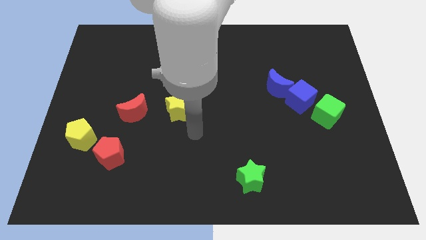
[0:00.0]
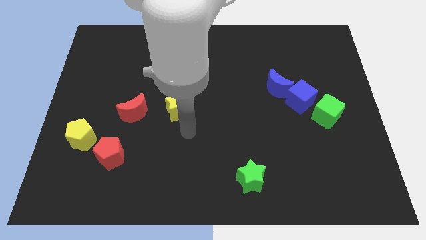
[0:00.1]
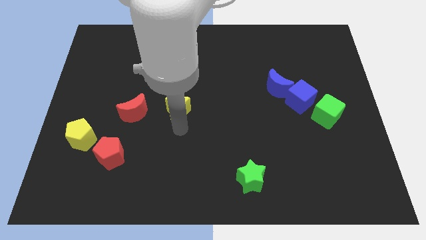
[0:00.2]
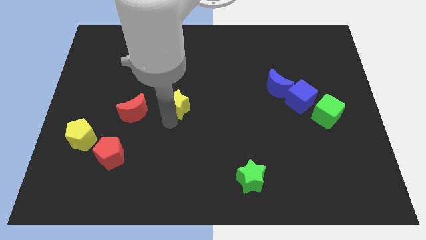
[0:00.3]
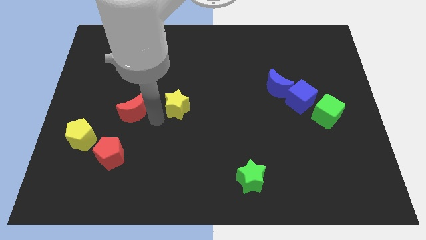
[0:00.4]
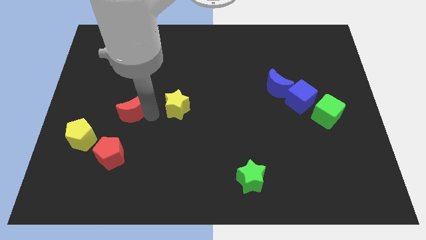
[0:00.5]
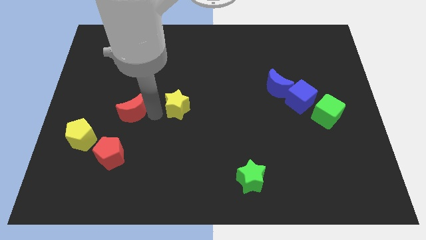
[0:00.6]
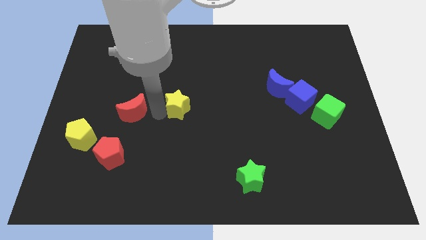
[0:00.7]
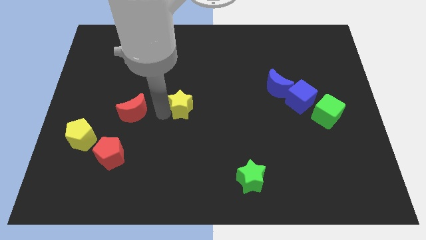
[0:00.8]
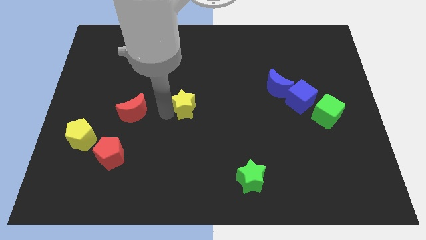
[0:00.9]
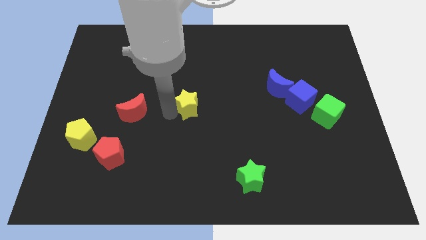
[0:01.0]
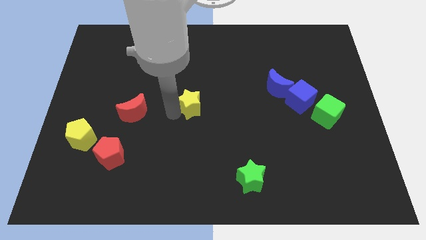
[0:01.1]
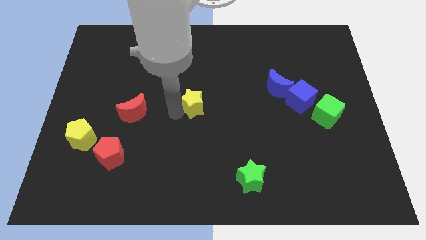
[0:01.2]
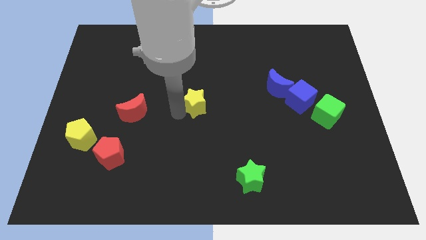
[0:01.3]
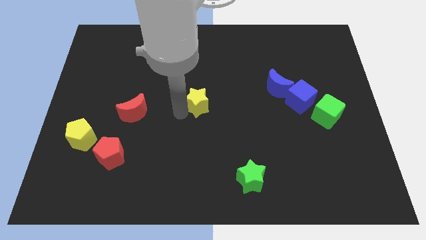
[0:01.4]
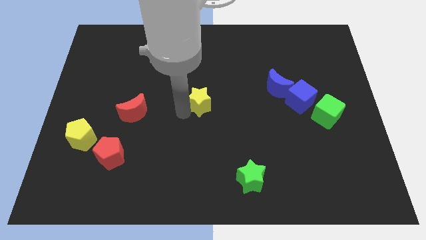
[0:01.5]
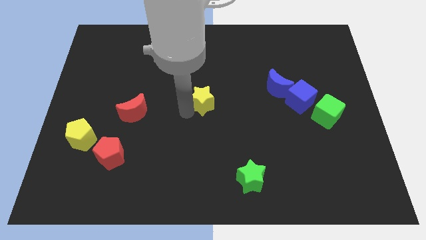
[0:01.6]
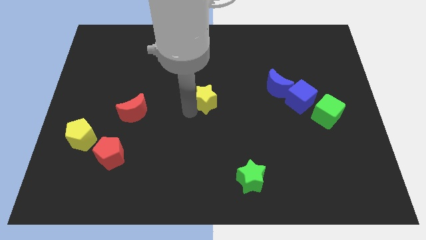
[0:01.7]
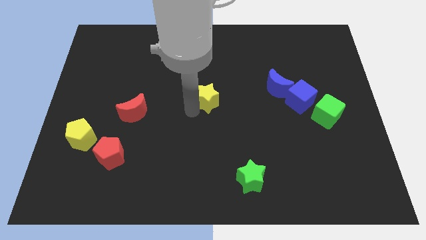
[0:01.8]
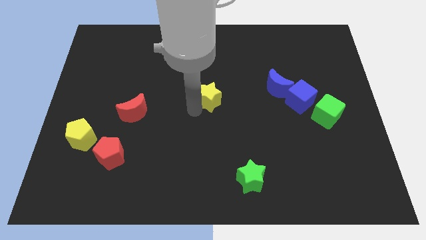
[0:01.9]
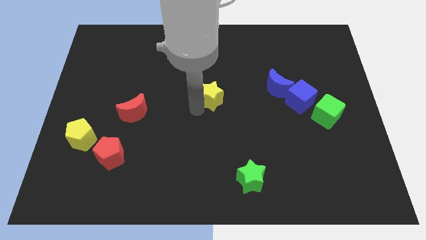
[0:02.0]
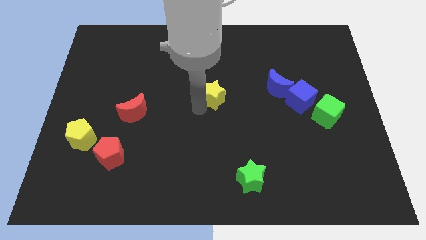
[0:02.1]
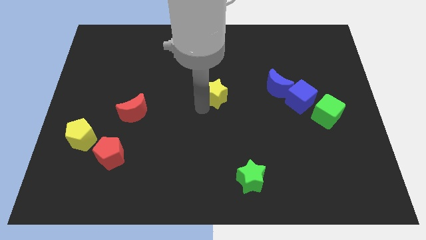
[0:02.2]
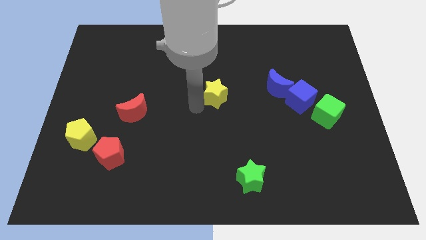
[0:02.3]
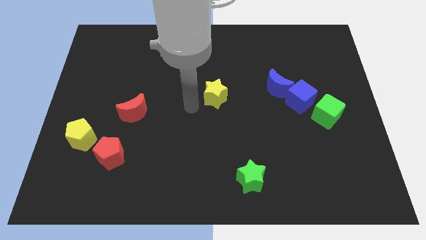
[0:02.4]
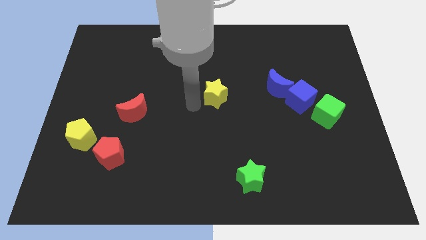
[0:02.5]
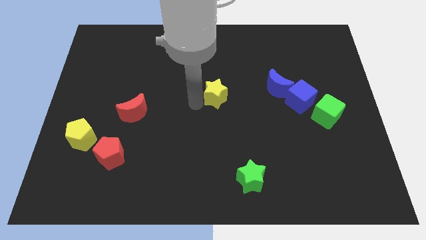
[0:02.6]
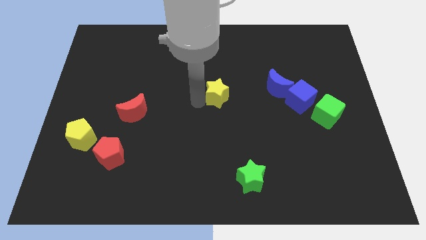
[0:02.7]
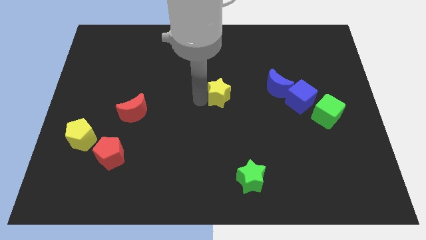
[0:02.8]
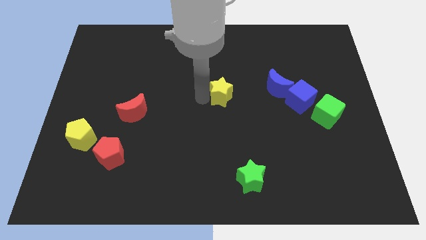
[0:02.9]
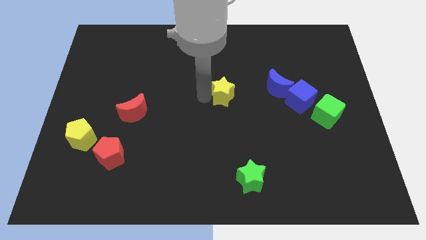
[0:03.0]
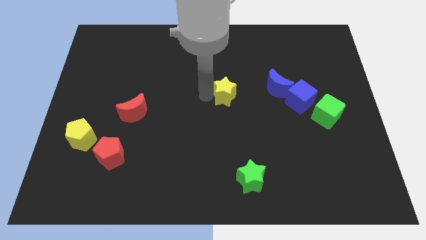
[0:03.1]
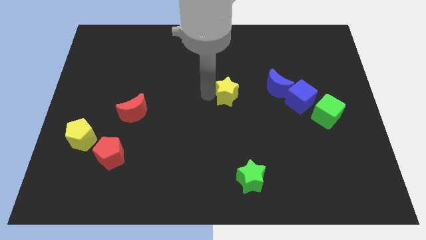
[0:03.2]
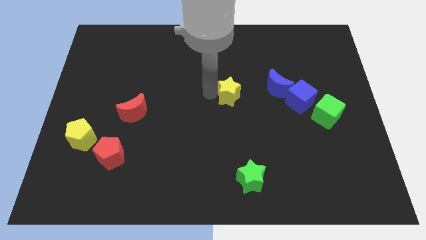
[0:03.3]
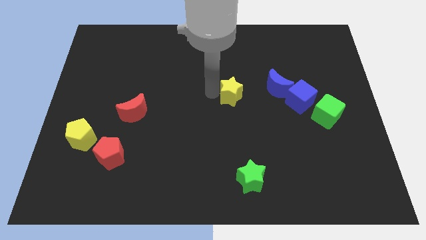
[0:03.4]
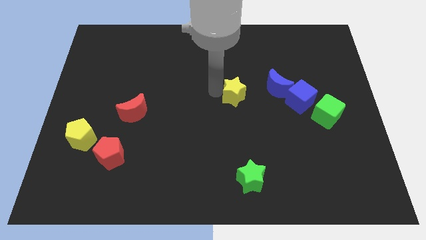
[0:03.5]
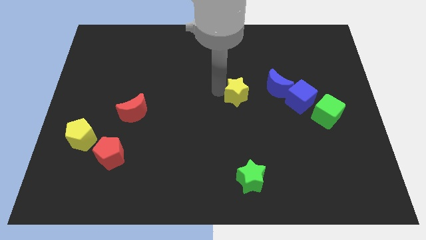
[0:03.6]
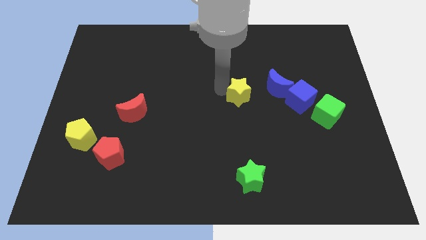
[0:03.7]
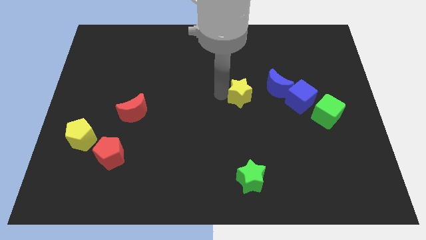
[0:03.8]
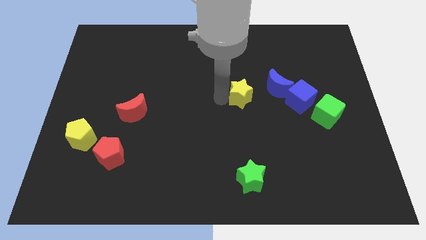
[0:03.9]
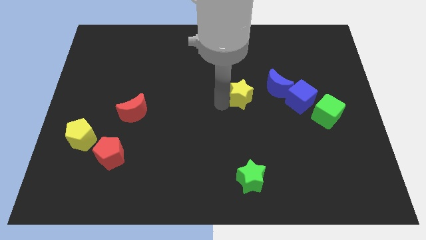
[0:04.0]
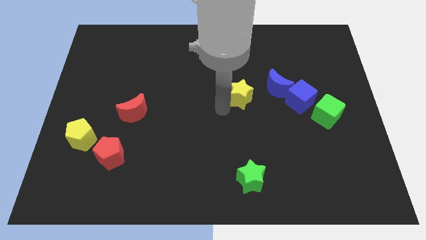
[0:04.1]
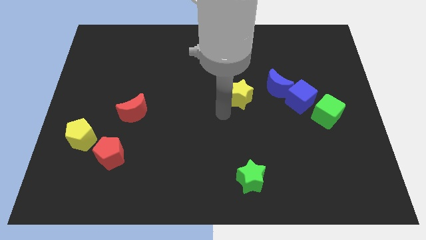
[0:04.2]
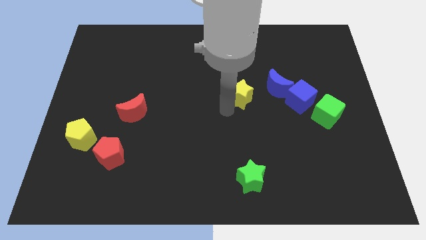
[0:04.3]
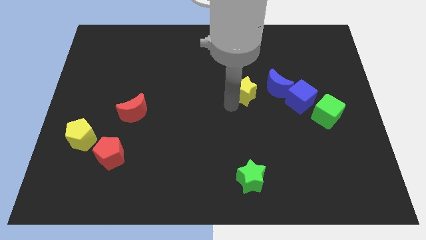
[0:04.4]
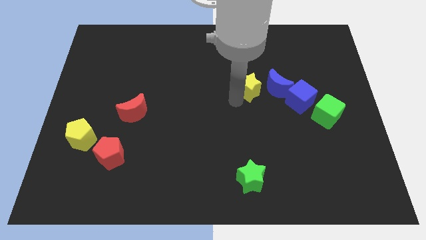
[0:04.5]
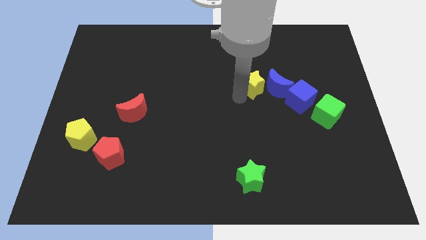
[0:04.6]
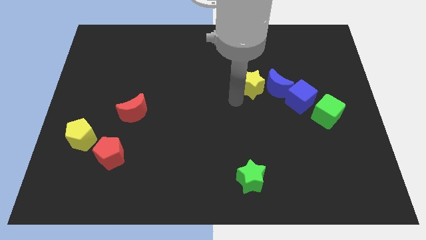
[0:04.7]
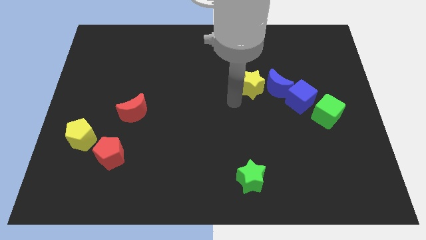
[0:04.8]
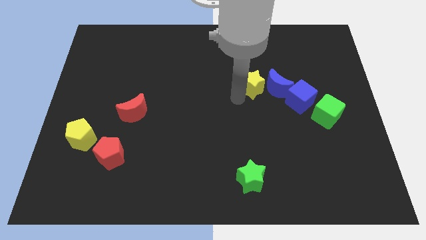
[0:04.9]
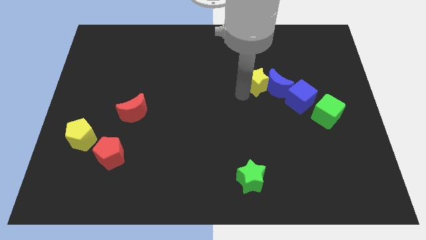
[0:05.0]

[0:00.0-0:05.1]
slide the yellow star to the top left side of the blue cube

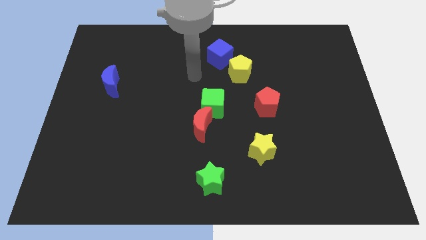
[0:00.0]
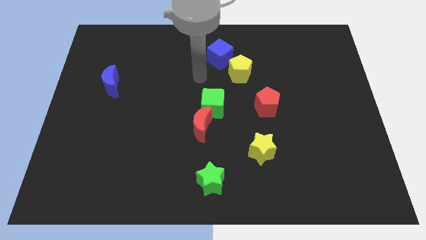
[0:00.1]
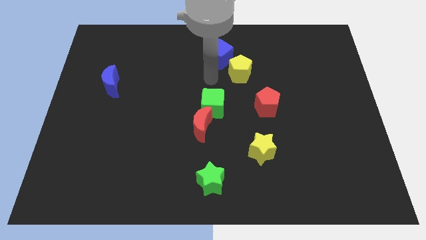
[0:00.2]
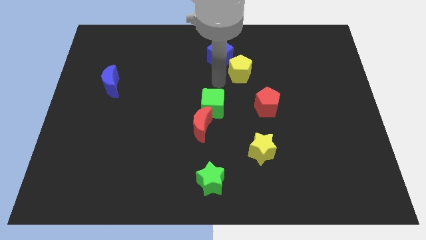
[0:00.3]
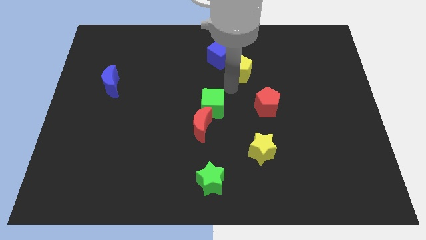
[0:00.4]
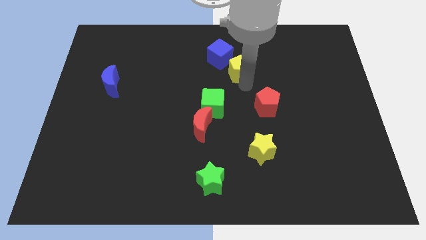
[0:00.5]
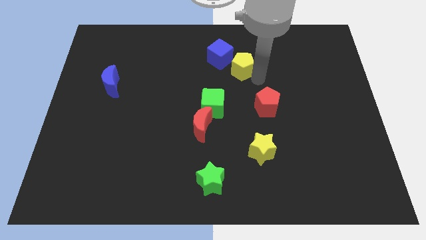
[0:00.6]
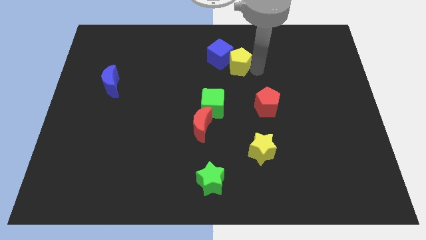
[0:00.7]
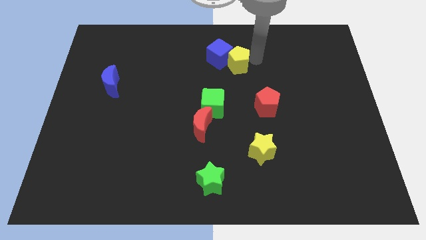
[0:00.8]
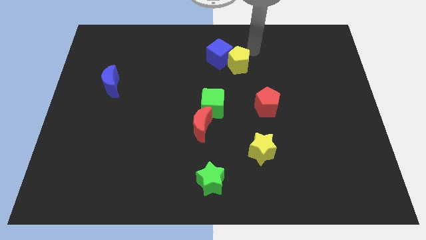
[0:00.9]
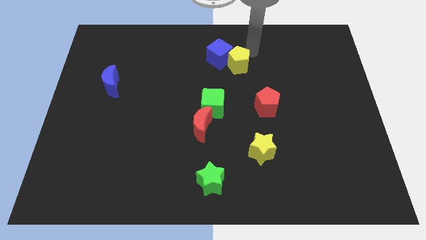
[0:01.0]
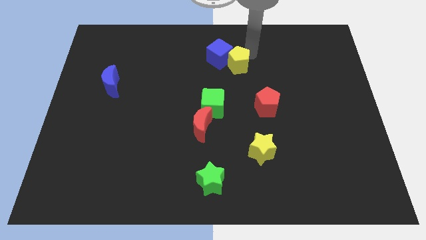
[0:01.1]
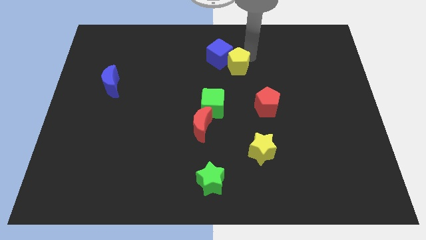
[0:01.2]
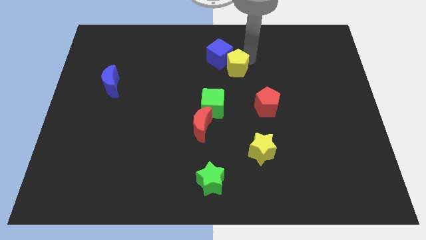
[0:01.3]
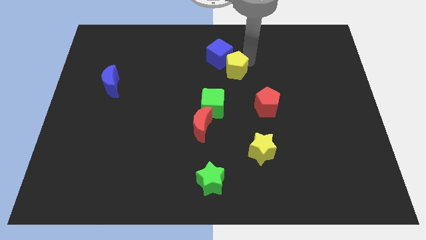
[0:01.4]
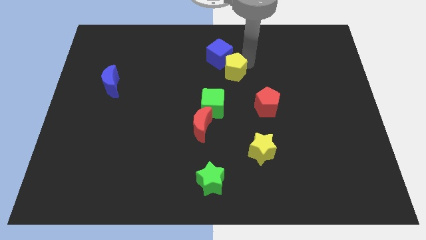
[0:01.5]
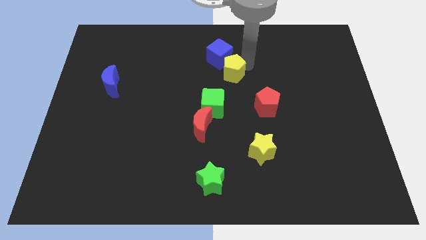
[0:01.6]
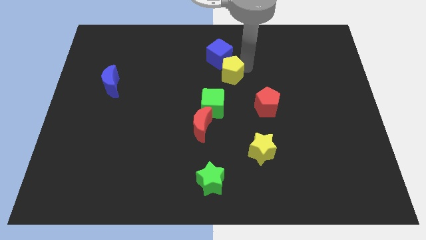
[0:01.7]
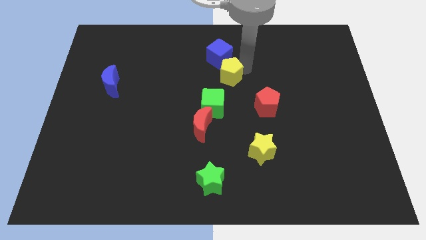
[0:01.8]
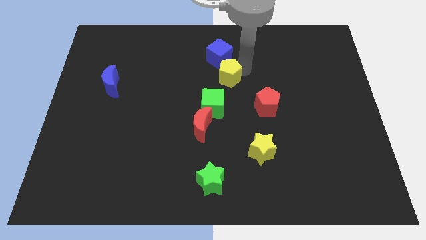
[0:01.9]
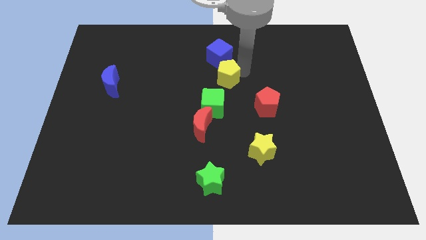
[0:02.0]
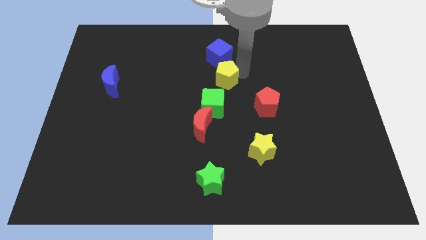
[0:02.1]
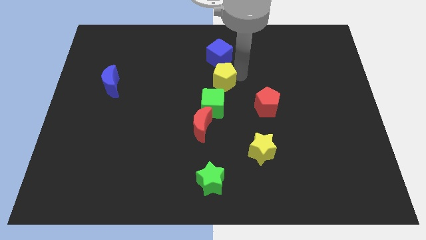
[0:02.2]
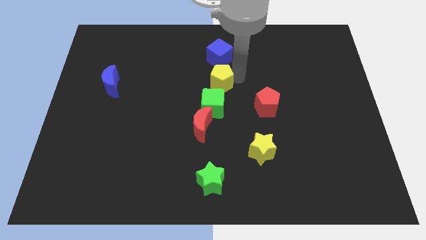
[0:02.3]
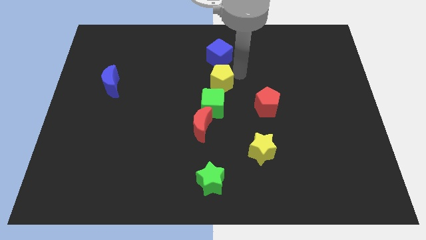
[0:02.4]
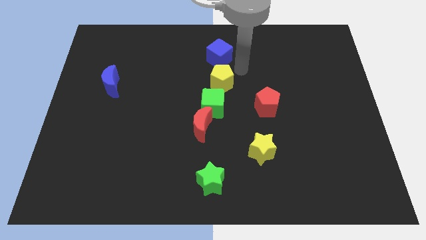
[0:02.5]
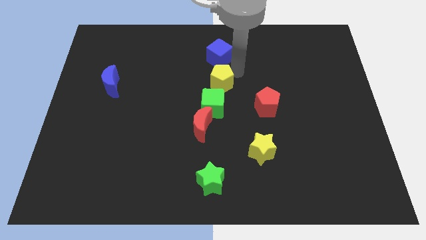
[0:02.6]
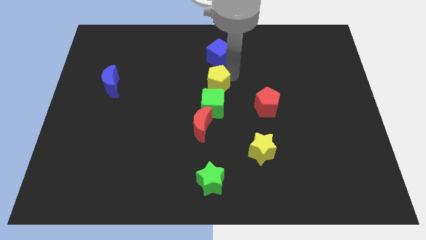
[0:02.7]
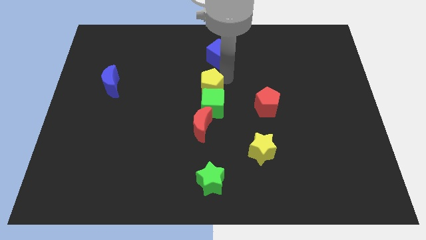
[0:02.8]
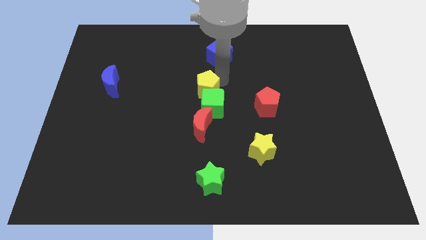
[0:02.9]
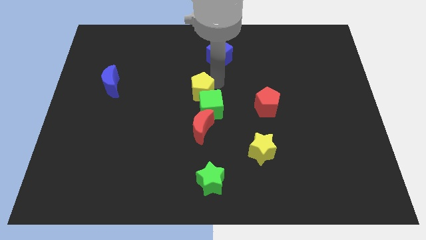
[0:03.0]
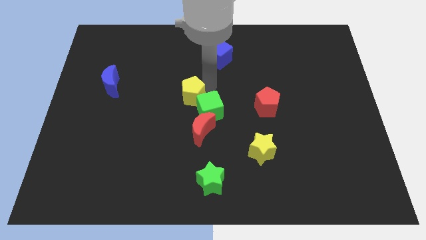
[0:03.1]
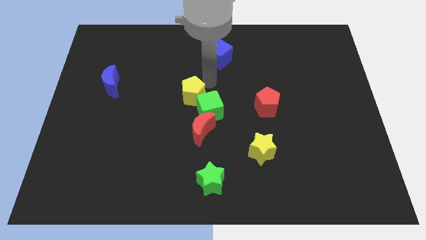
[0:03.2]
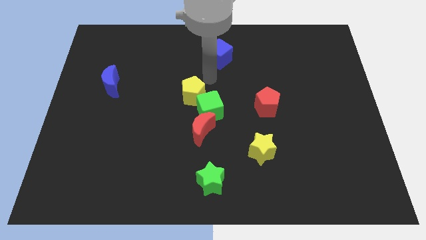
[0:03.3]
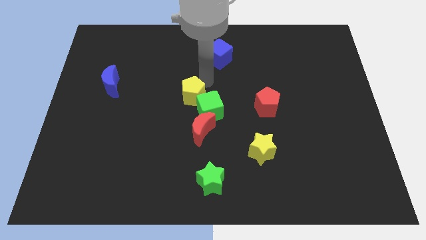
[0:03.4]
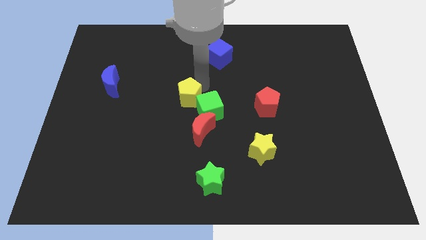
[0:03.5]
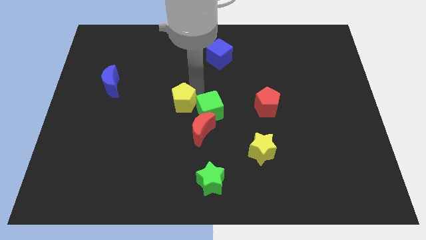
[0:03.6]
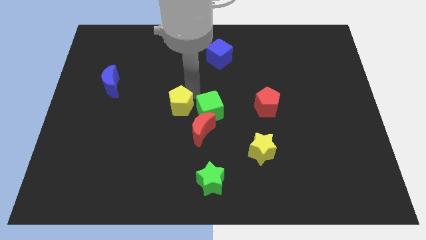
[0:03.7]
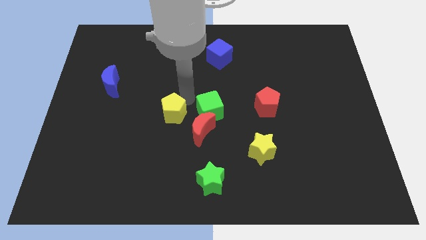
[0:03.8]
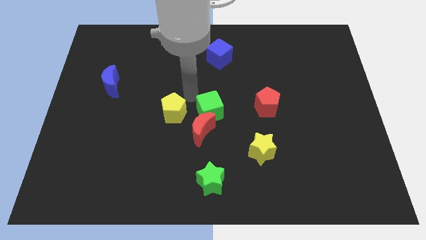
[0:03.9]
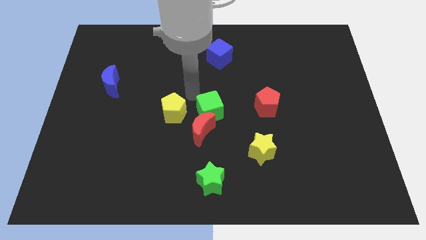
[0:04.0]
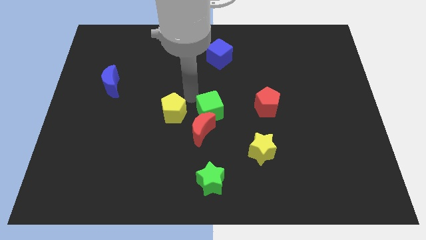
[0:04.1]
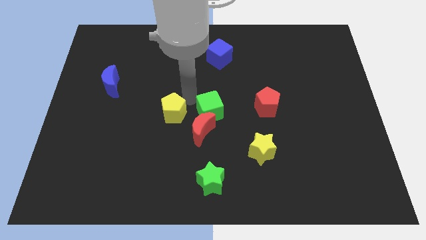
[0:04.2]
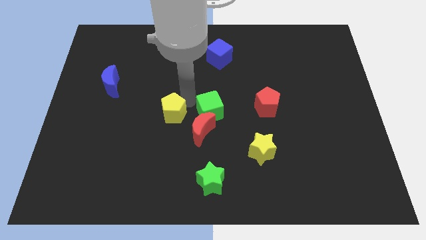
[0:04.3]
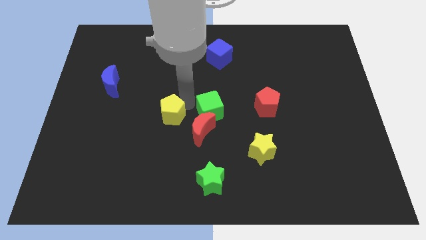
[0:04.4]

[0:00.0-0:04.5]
slide the yellow pentagon to the left of the red moon
